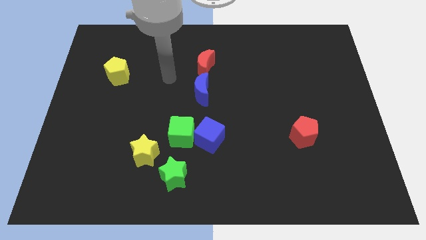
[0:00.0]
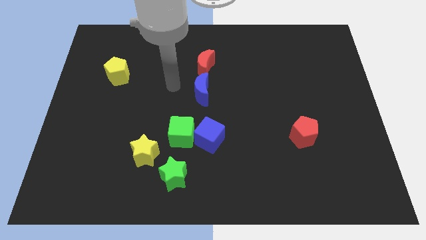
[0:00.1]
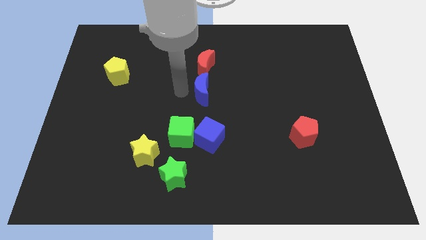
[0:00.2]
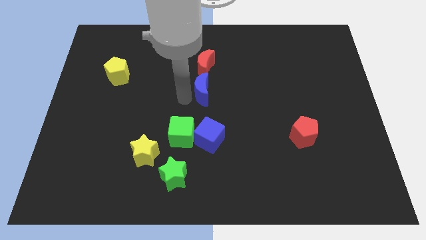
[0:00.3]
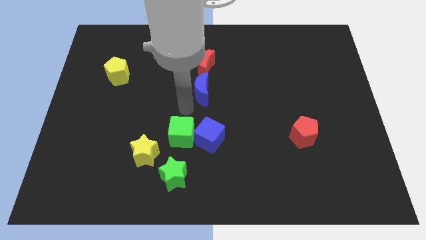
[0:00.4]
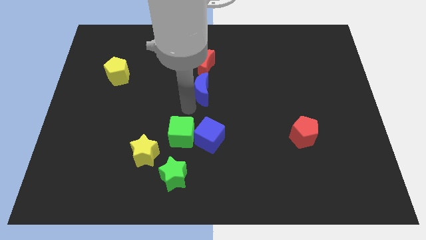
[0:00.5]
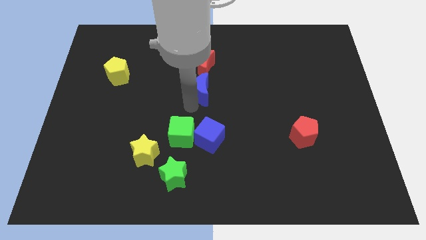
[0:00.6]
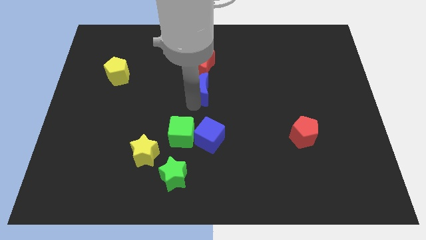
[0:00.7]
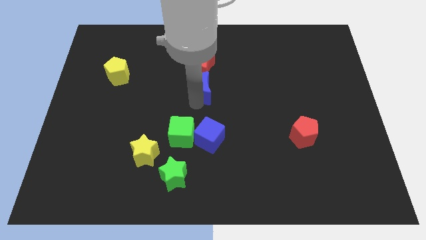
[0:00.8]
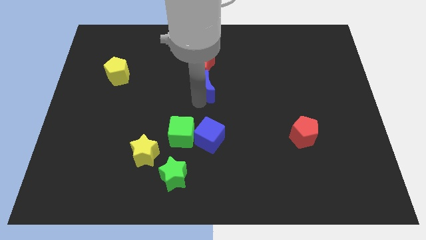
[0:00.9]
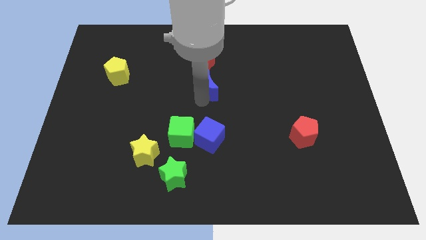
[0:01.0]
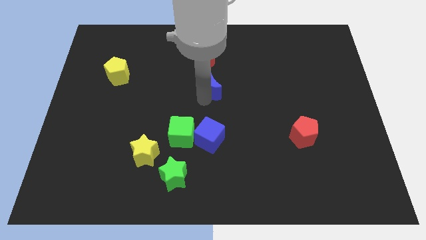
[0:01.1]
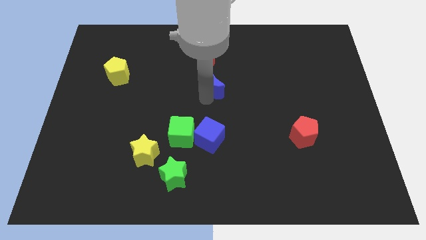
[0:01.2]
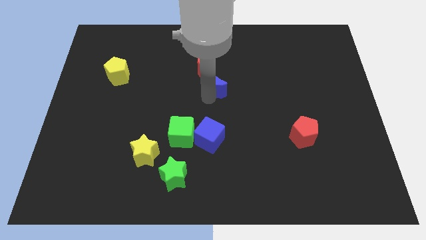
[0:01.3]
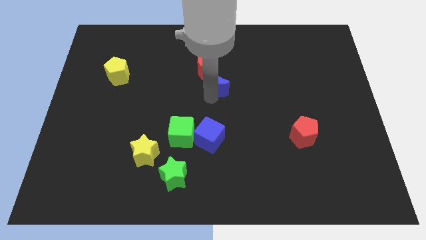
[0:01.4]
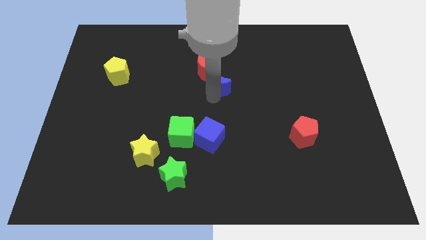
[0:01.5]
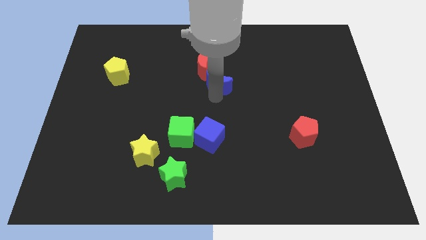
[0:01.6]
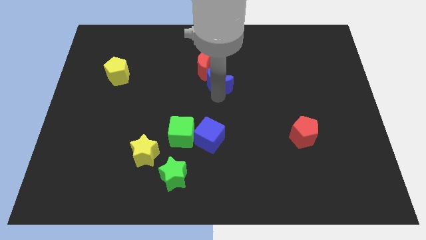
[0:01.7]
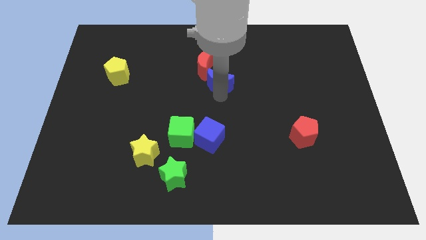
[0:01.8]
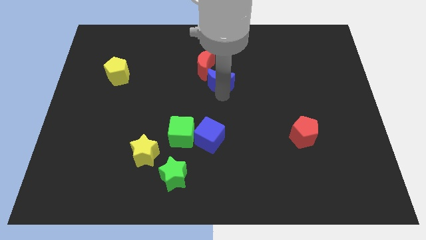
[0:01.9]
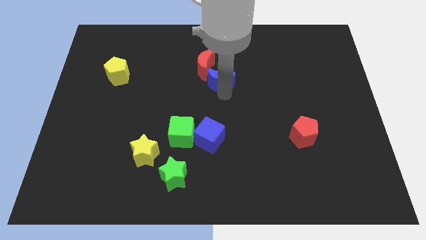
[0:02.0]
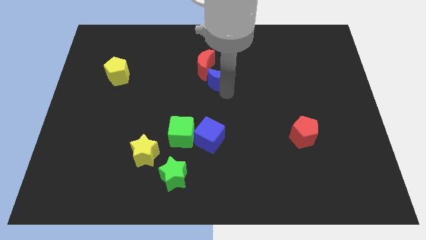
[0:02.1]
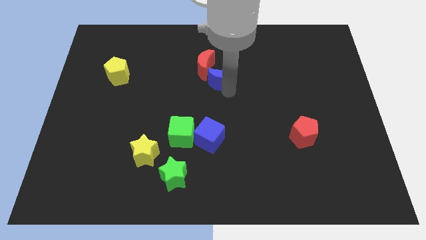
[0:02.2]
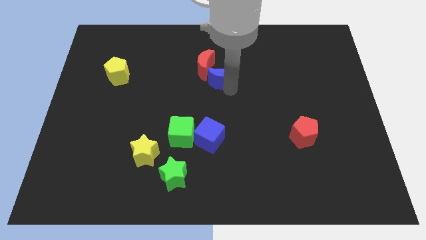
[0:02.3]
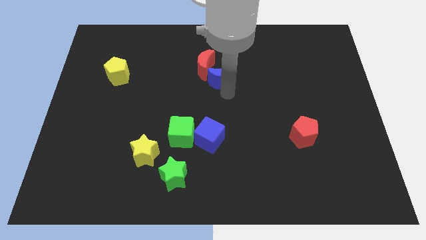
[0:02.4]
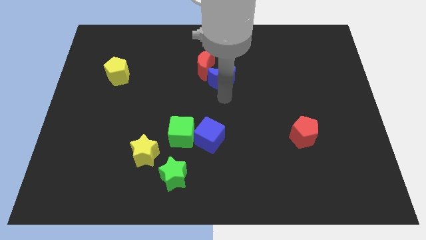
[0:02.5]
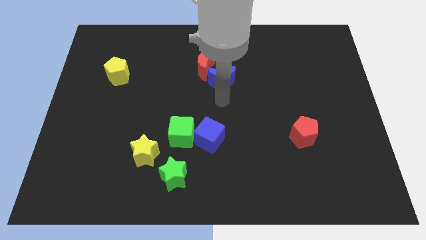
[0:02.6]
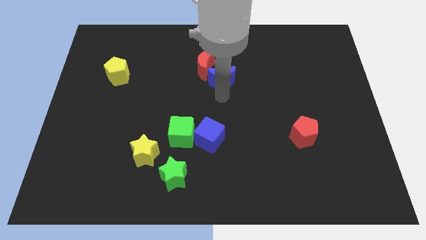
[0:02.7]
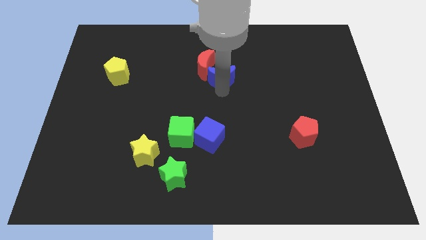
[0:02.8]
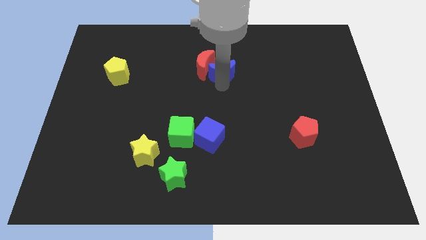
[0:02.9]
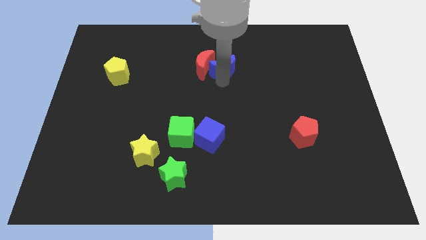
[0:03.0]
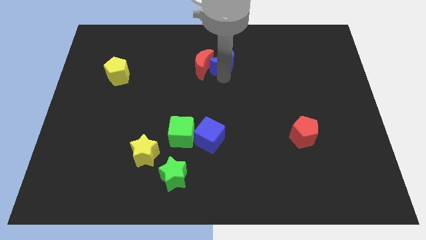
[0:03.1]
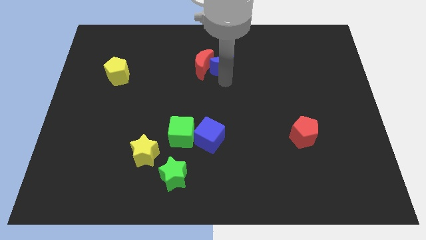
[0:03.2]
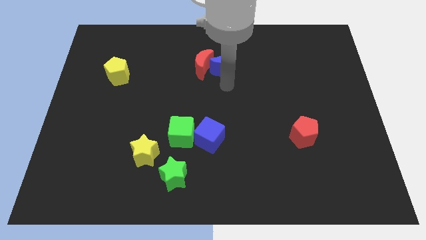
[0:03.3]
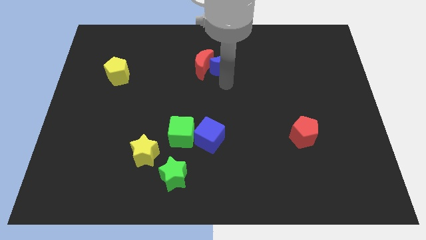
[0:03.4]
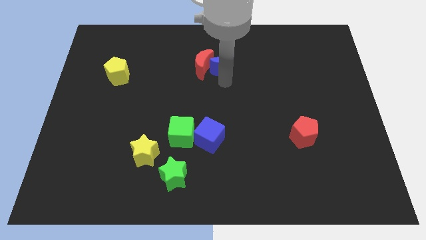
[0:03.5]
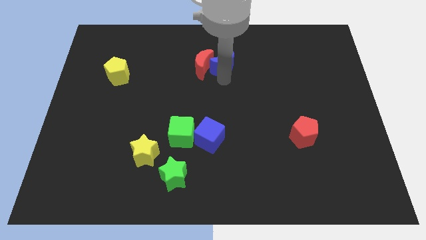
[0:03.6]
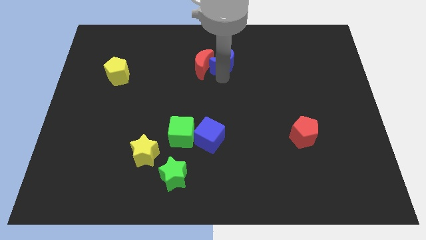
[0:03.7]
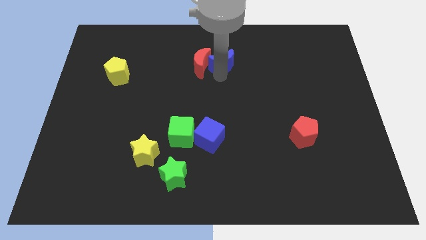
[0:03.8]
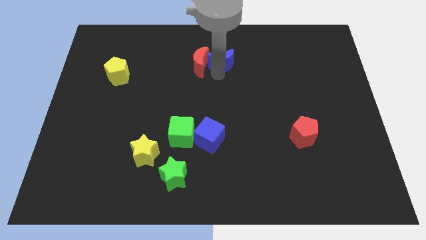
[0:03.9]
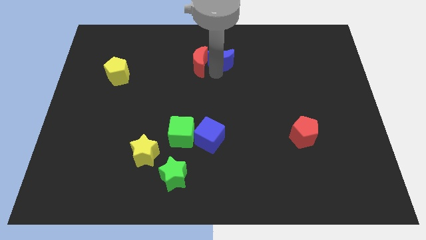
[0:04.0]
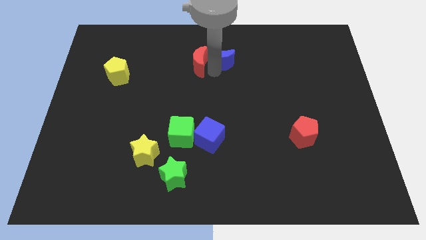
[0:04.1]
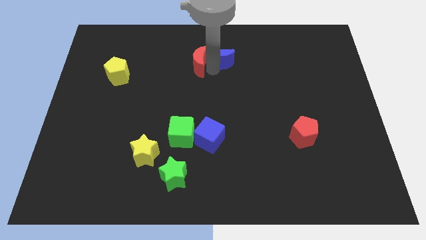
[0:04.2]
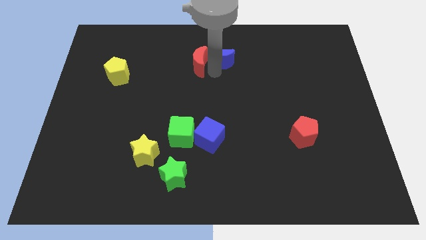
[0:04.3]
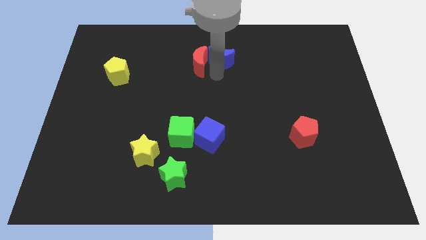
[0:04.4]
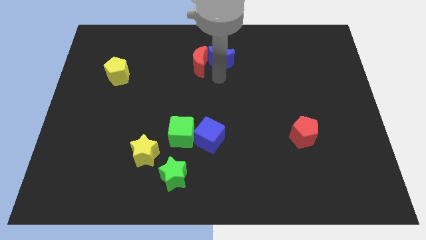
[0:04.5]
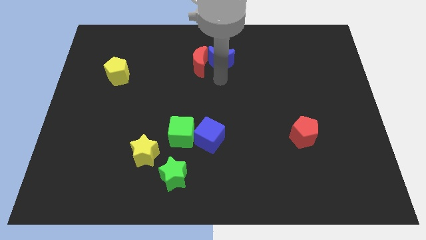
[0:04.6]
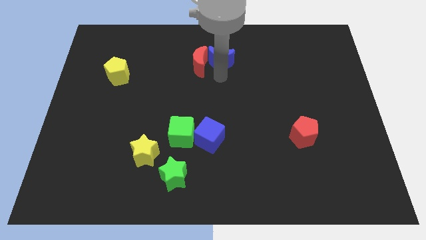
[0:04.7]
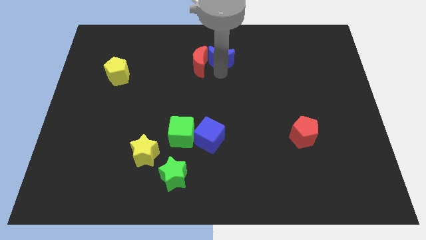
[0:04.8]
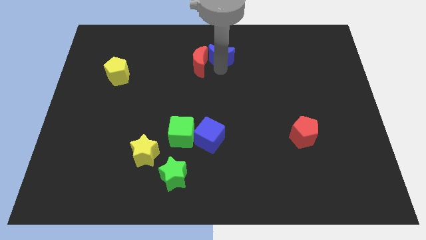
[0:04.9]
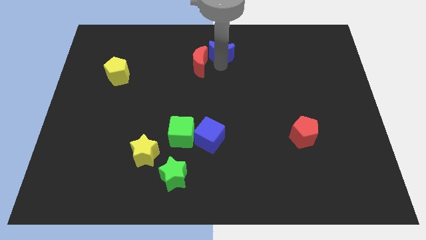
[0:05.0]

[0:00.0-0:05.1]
put the blue moon to the towards your base

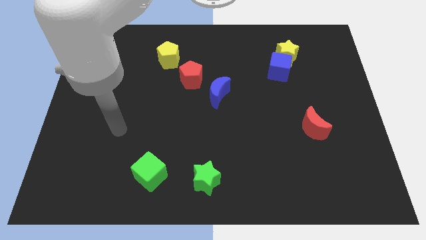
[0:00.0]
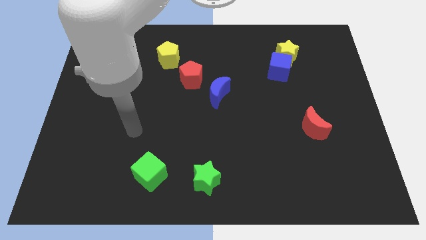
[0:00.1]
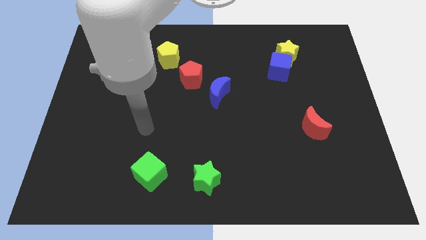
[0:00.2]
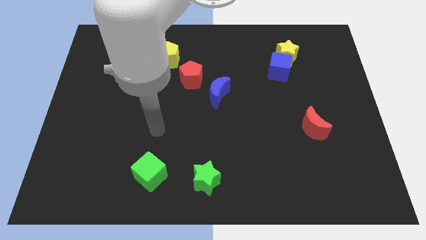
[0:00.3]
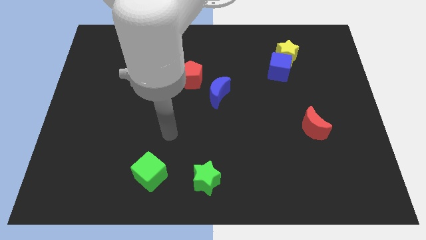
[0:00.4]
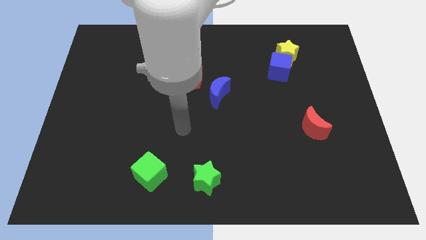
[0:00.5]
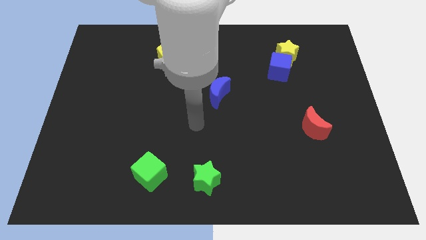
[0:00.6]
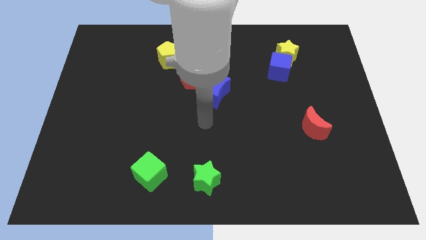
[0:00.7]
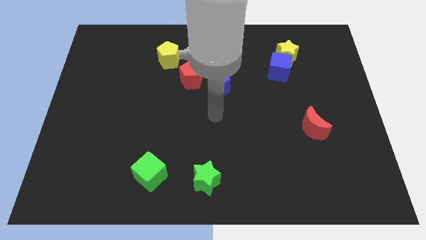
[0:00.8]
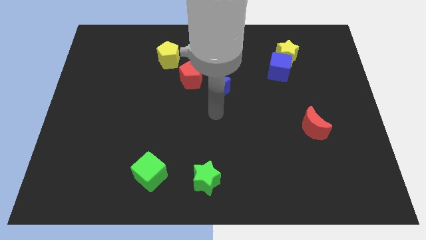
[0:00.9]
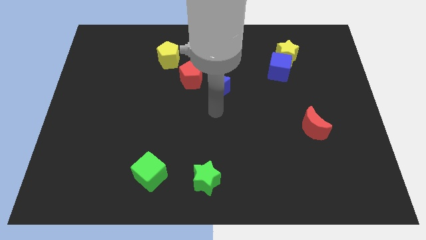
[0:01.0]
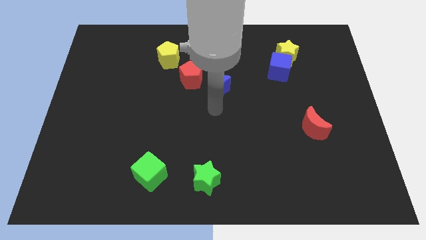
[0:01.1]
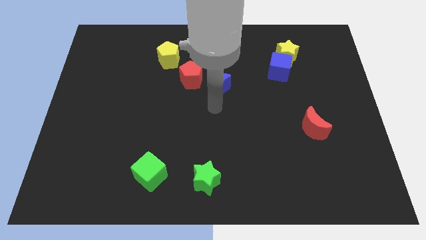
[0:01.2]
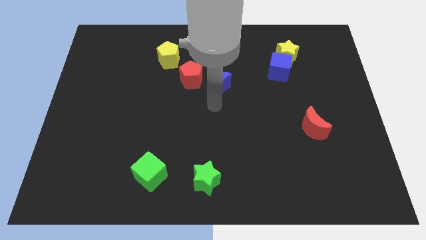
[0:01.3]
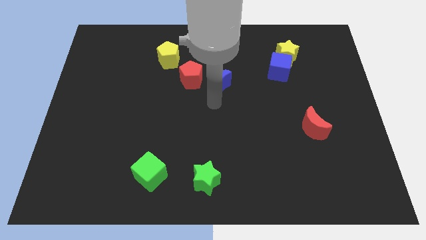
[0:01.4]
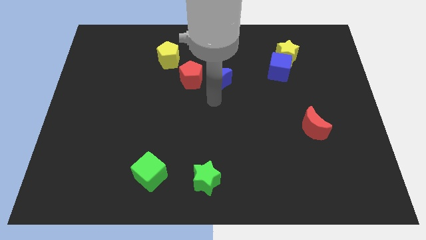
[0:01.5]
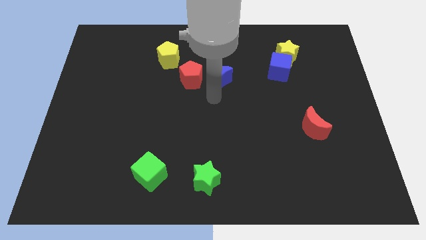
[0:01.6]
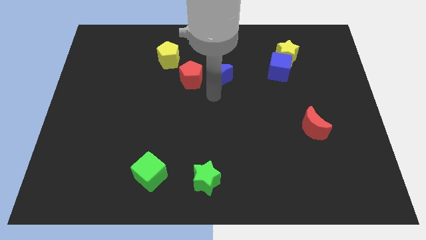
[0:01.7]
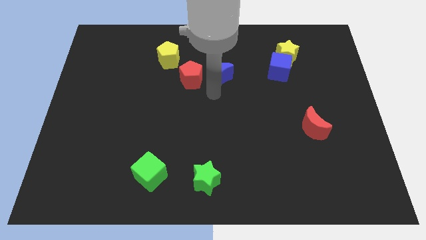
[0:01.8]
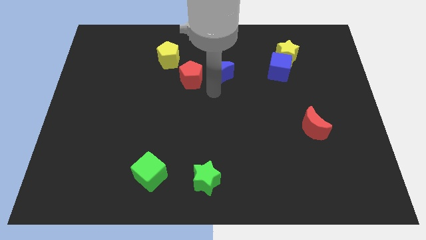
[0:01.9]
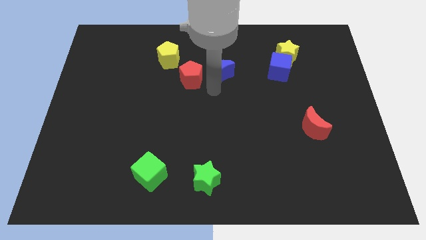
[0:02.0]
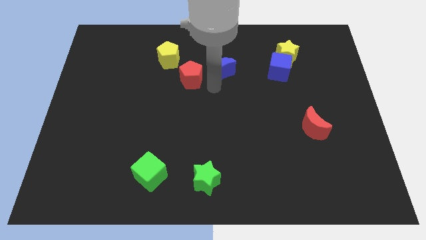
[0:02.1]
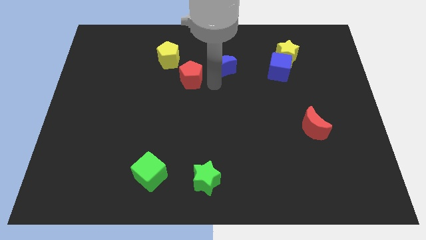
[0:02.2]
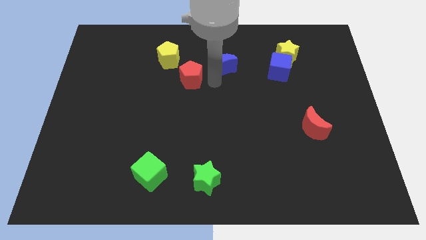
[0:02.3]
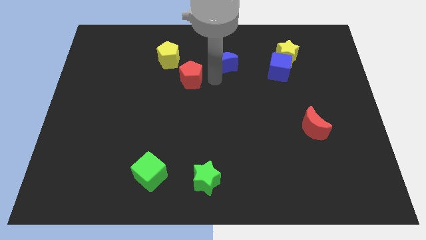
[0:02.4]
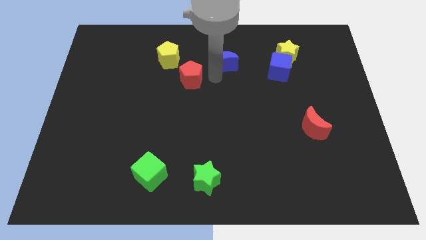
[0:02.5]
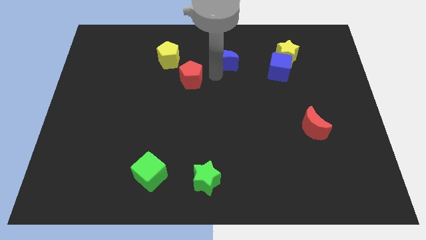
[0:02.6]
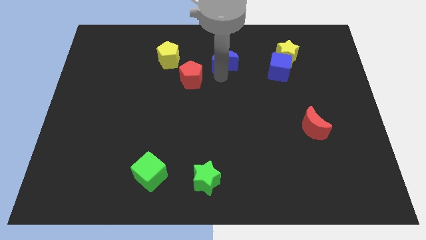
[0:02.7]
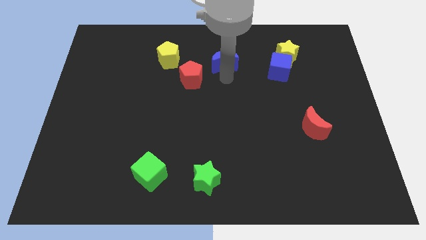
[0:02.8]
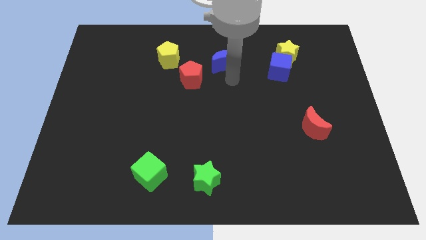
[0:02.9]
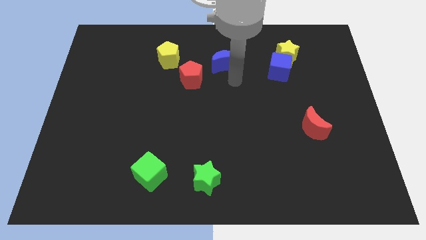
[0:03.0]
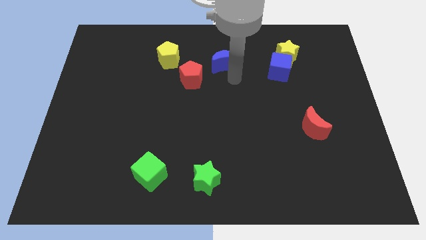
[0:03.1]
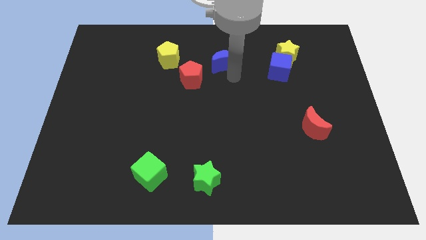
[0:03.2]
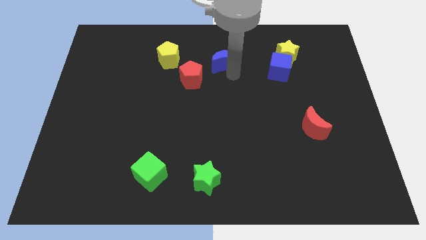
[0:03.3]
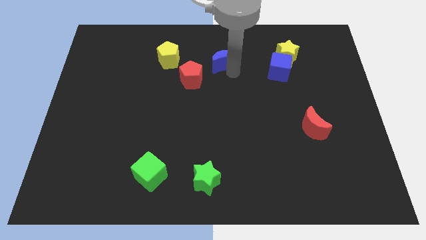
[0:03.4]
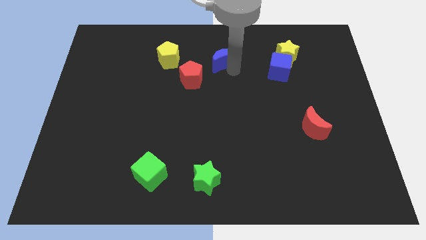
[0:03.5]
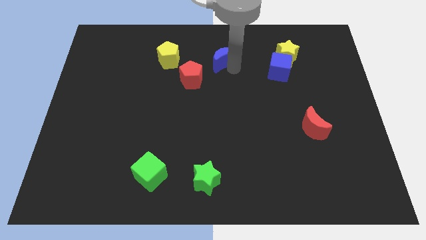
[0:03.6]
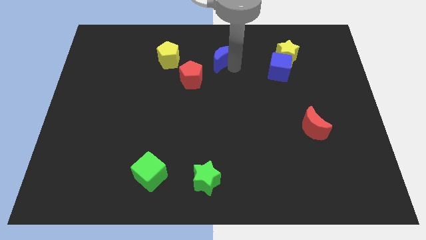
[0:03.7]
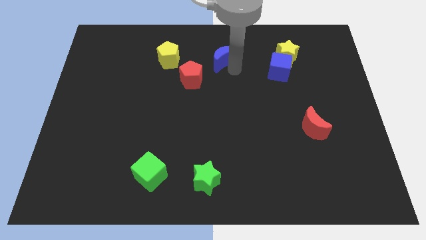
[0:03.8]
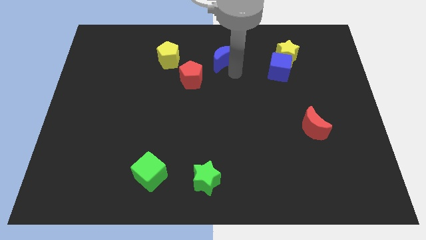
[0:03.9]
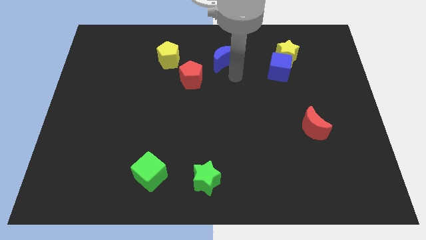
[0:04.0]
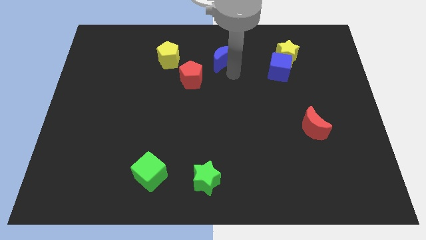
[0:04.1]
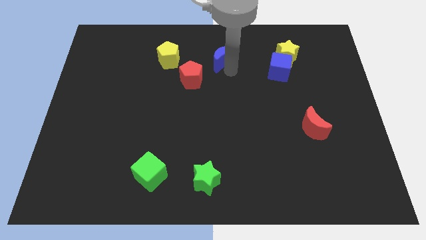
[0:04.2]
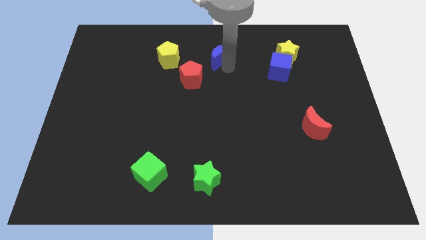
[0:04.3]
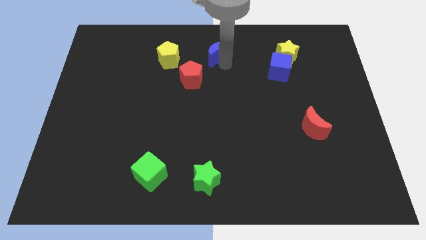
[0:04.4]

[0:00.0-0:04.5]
push the blue moon to the top
